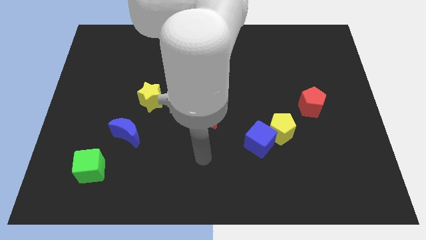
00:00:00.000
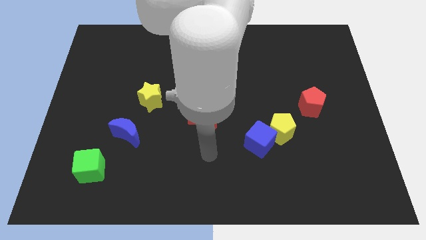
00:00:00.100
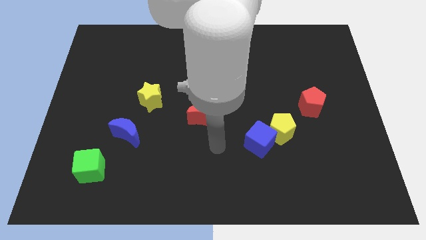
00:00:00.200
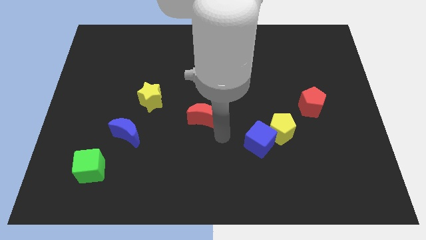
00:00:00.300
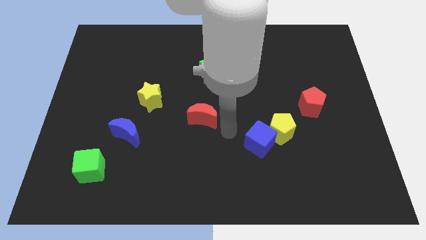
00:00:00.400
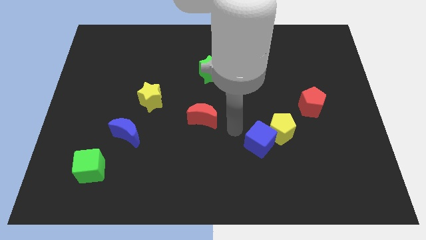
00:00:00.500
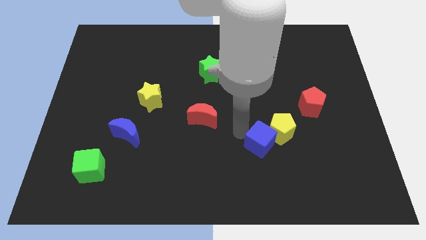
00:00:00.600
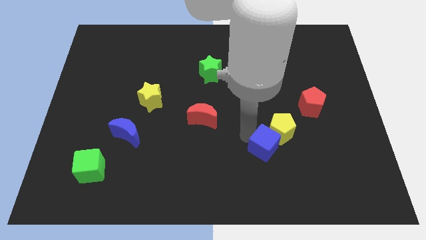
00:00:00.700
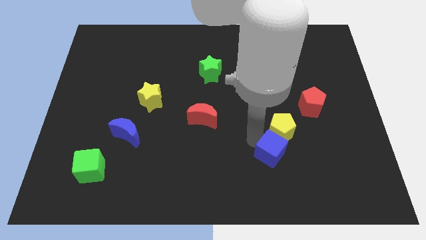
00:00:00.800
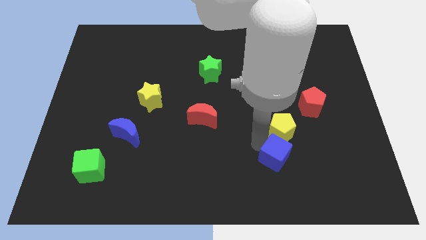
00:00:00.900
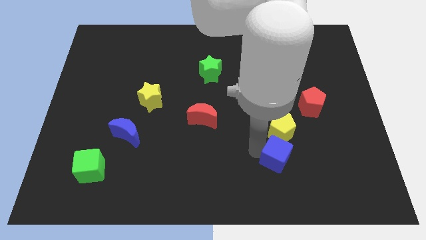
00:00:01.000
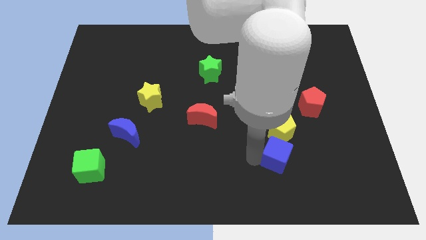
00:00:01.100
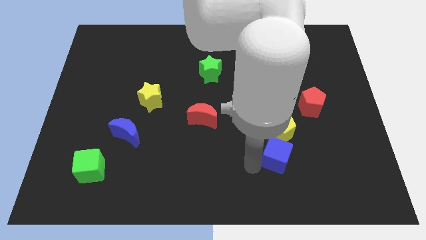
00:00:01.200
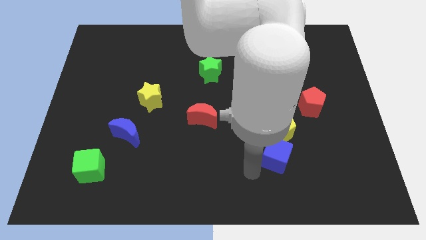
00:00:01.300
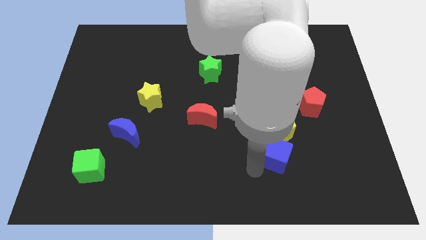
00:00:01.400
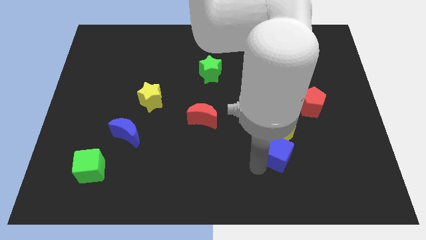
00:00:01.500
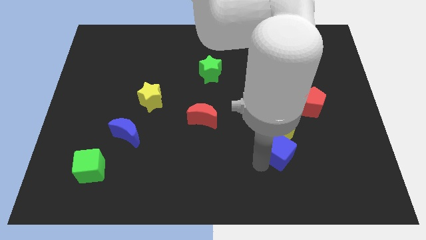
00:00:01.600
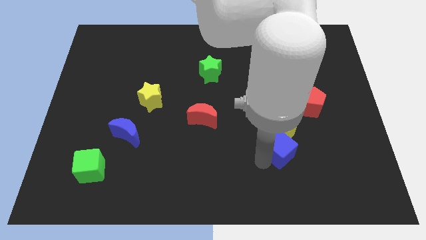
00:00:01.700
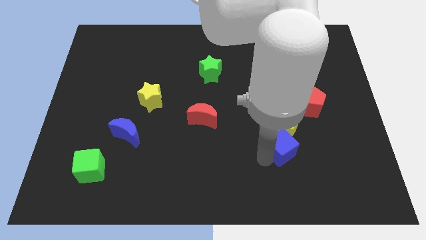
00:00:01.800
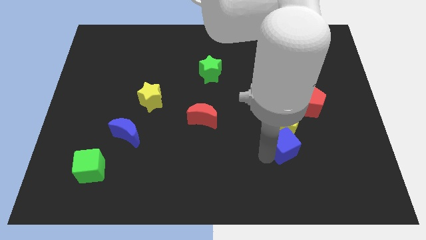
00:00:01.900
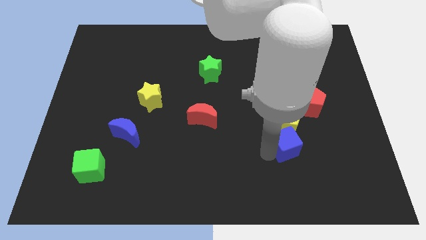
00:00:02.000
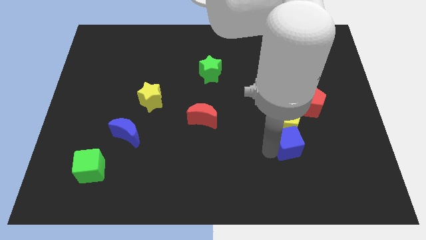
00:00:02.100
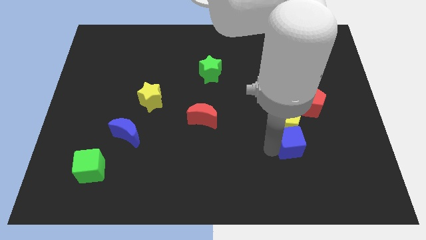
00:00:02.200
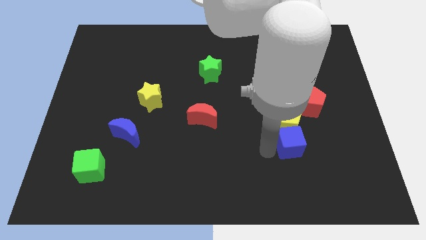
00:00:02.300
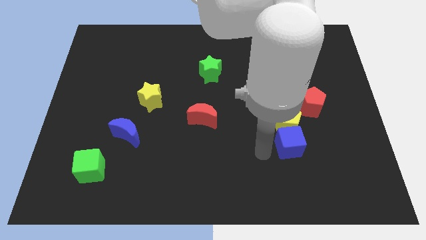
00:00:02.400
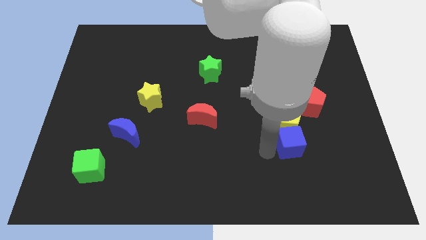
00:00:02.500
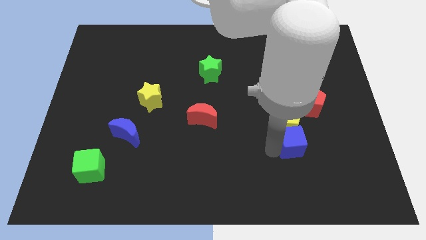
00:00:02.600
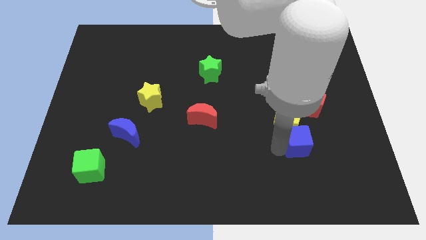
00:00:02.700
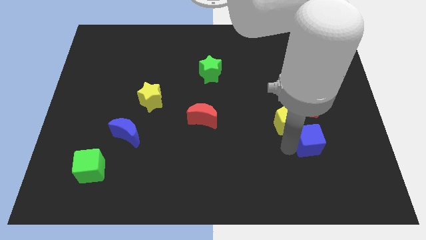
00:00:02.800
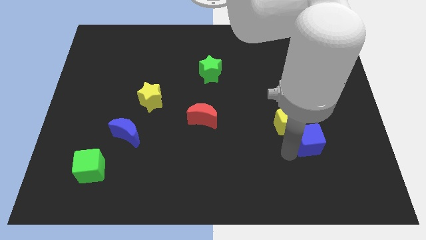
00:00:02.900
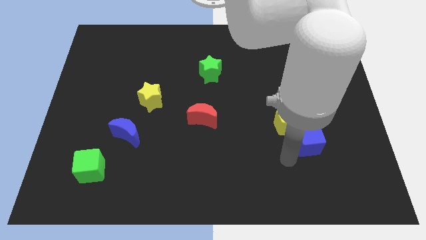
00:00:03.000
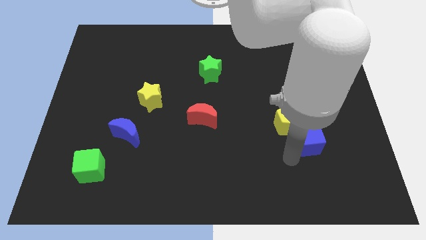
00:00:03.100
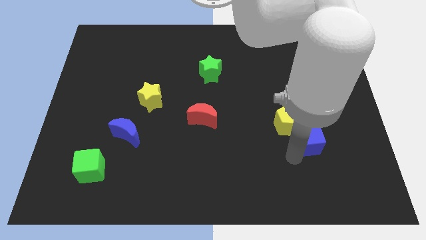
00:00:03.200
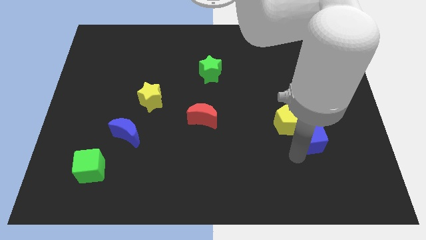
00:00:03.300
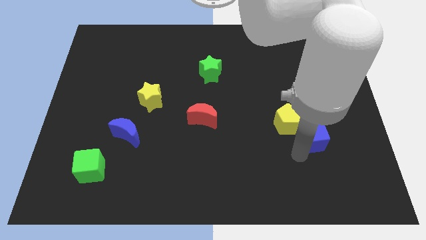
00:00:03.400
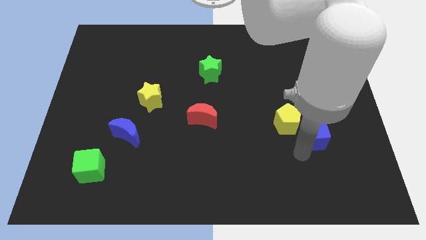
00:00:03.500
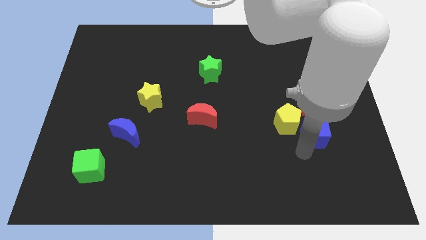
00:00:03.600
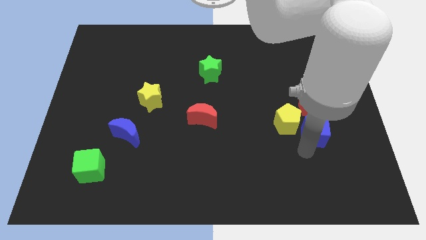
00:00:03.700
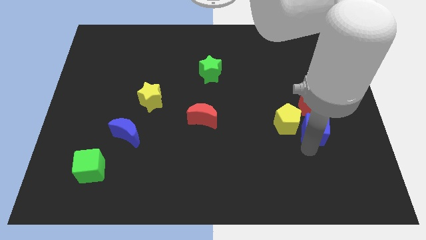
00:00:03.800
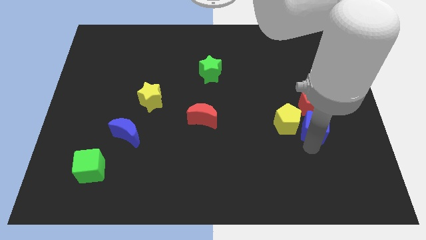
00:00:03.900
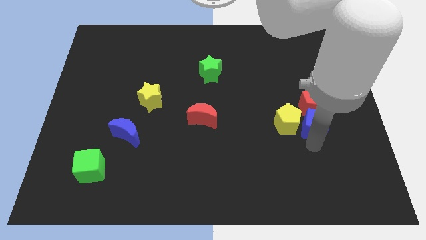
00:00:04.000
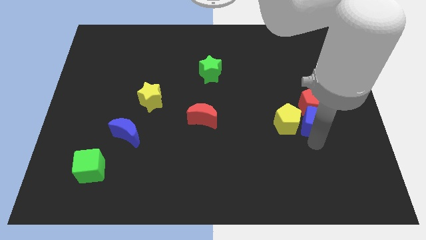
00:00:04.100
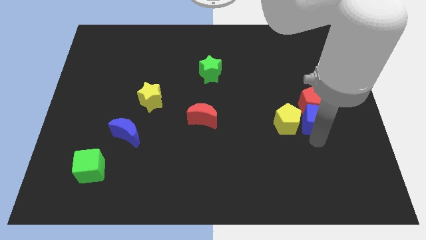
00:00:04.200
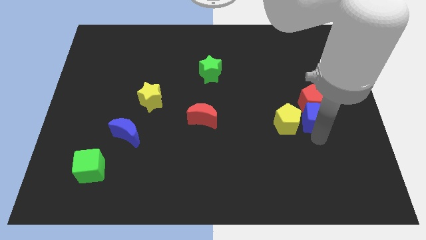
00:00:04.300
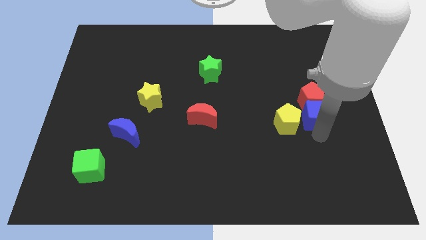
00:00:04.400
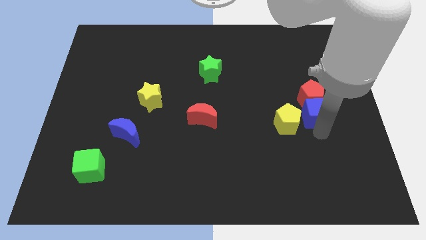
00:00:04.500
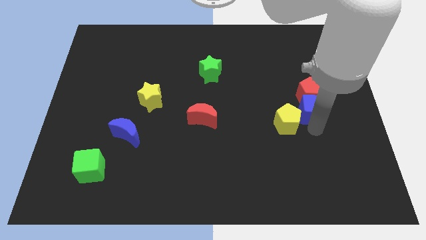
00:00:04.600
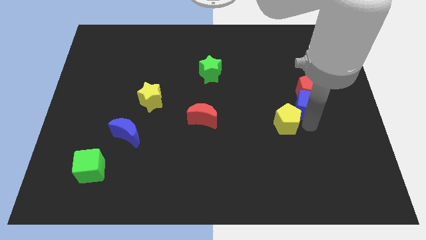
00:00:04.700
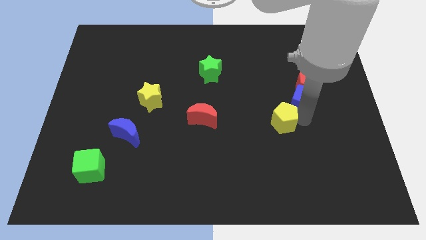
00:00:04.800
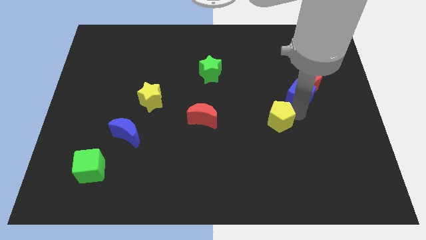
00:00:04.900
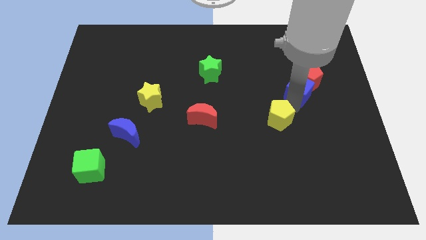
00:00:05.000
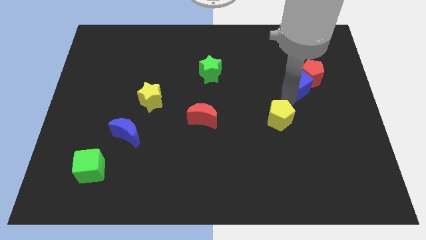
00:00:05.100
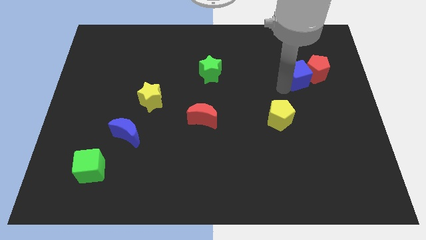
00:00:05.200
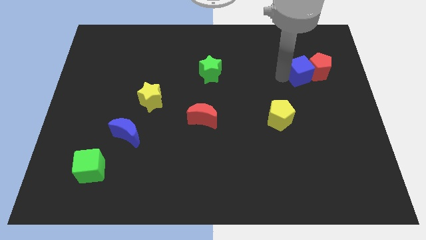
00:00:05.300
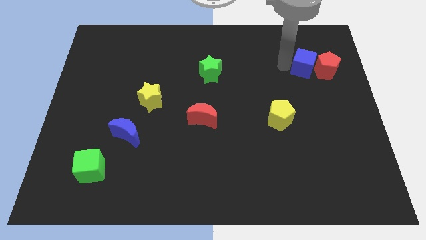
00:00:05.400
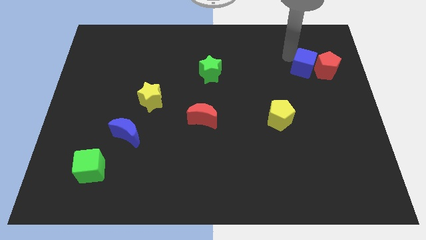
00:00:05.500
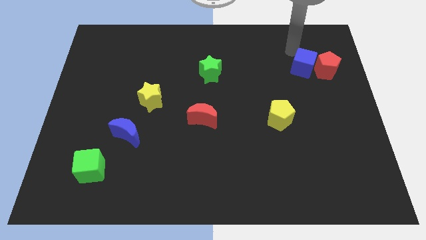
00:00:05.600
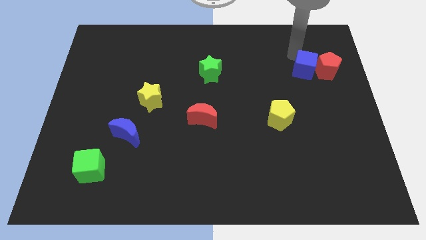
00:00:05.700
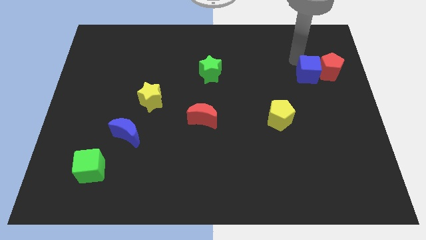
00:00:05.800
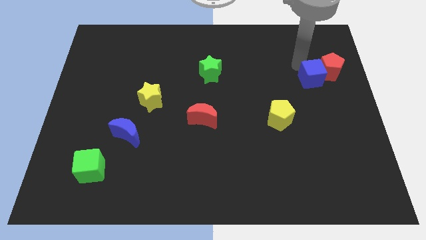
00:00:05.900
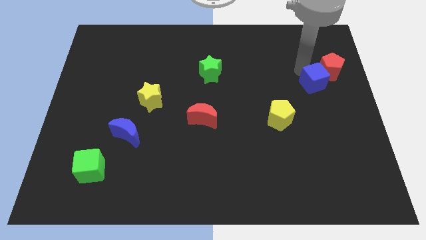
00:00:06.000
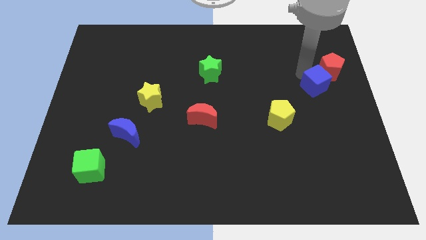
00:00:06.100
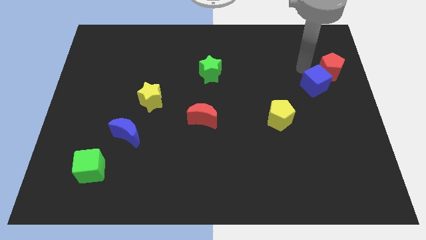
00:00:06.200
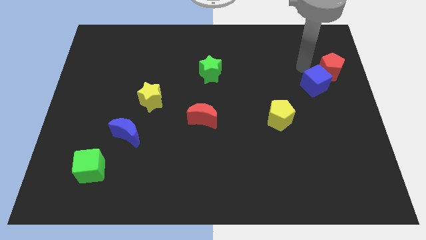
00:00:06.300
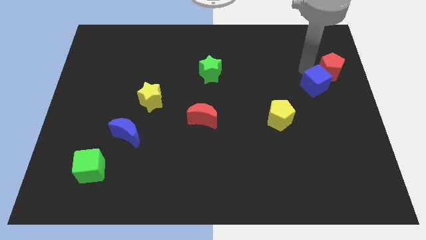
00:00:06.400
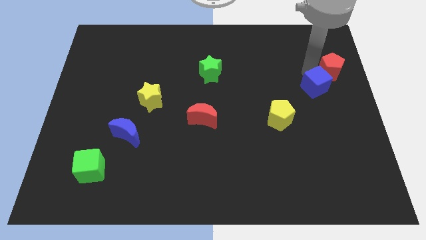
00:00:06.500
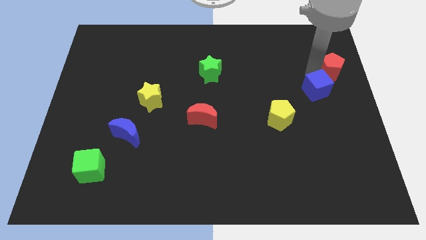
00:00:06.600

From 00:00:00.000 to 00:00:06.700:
push the blue cube to the right side
